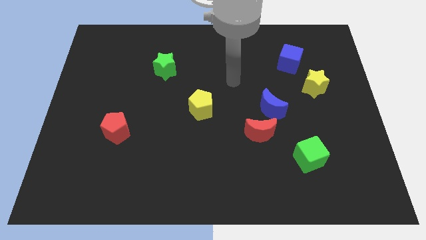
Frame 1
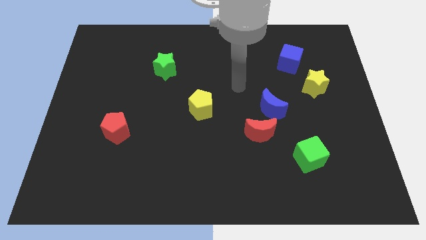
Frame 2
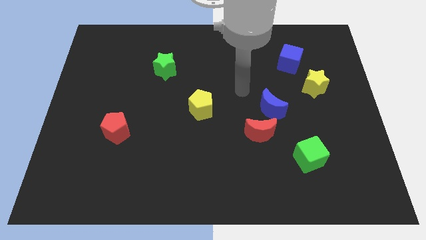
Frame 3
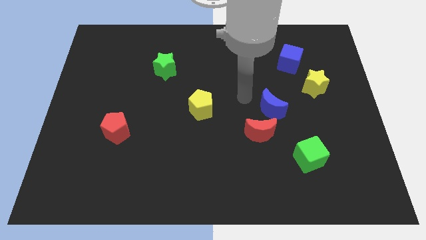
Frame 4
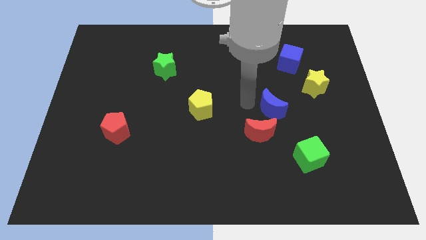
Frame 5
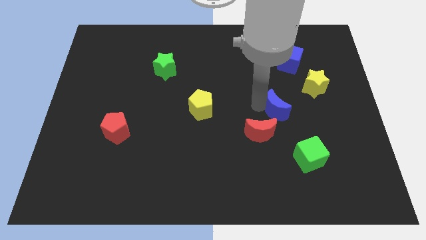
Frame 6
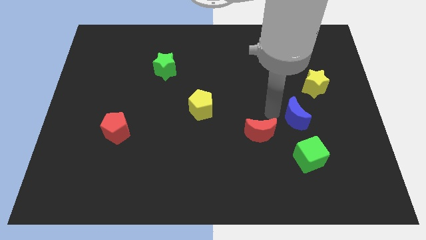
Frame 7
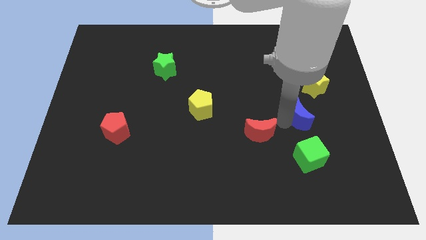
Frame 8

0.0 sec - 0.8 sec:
separate the red moon from the blue moon

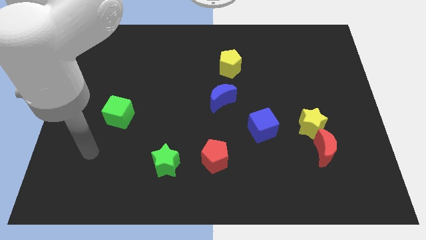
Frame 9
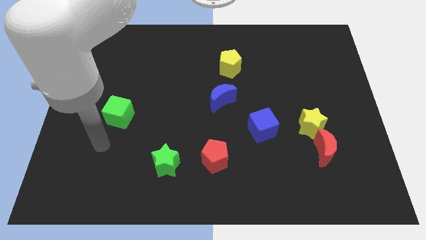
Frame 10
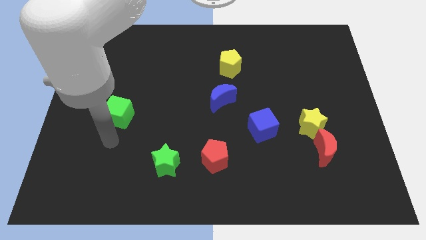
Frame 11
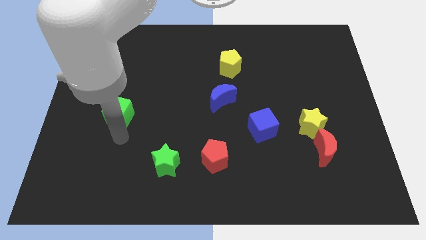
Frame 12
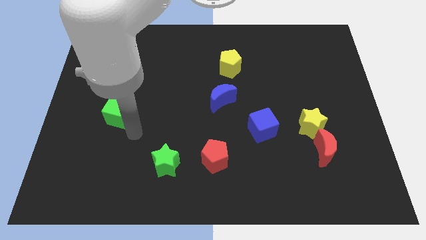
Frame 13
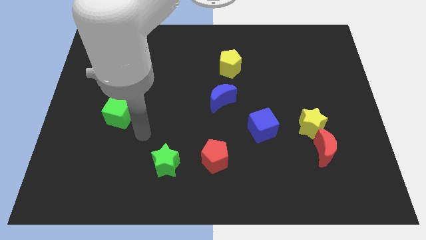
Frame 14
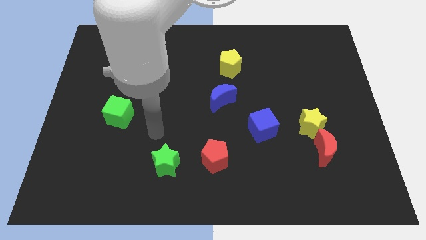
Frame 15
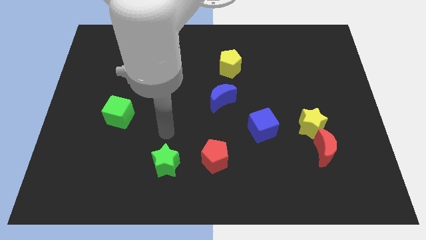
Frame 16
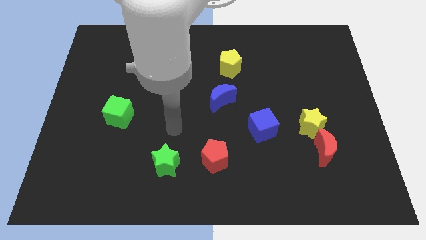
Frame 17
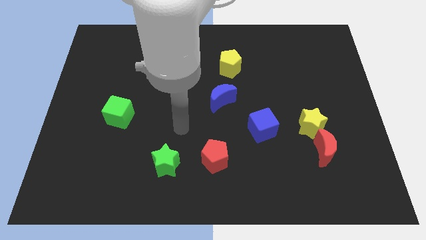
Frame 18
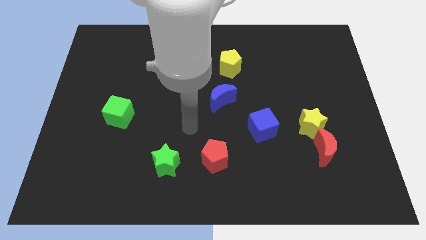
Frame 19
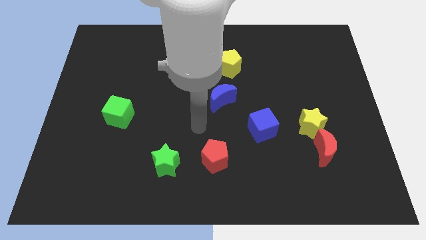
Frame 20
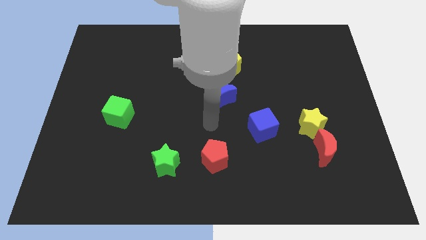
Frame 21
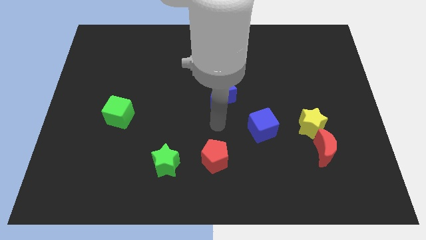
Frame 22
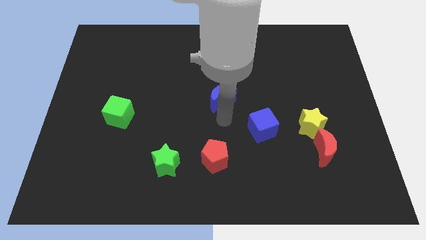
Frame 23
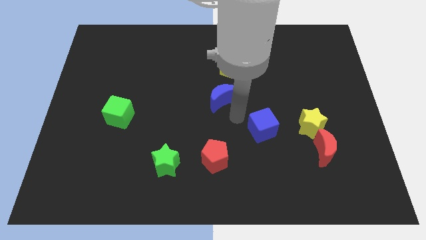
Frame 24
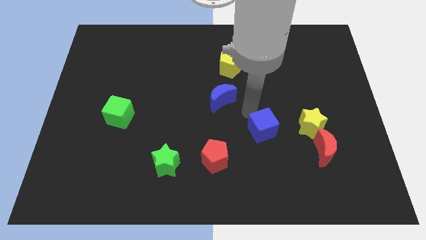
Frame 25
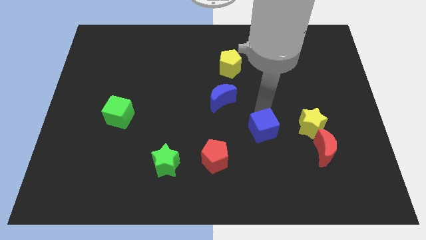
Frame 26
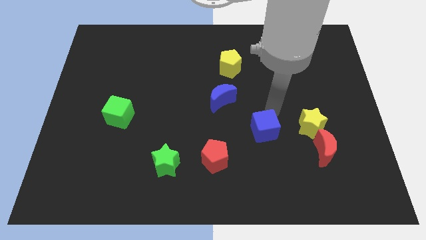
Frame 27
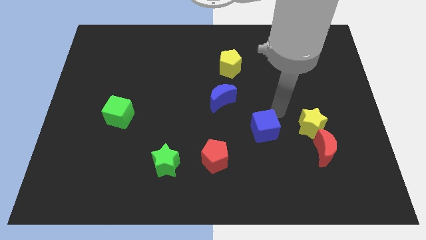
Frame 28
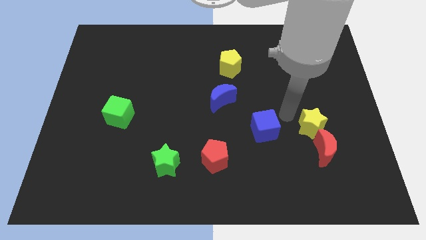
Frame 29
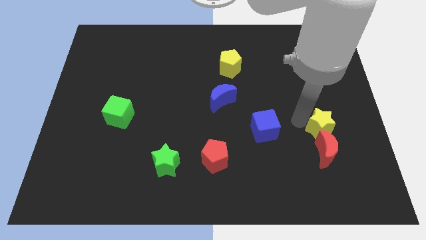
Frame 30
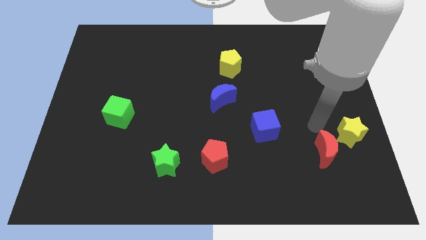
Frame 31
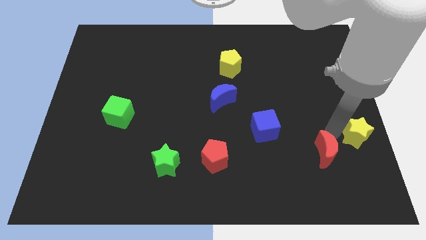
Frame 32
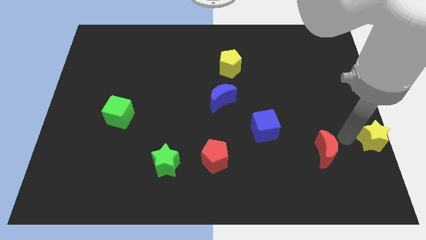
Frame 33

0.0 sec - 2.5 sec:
move the red moon away from the yellow star

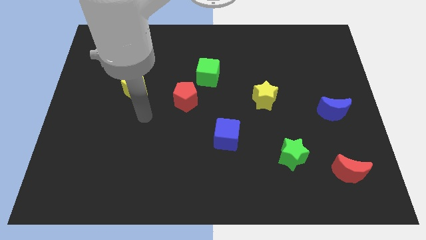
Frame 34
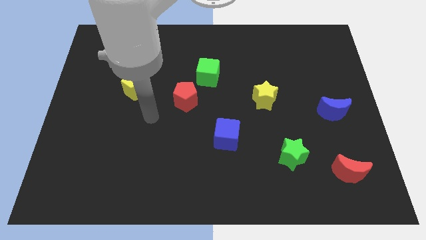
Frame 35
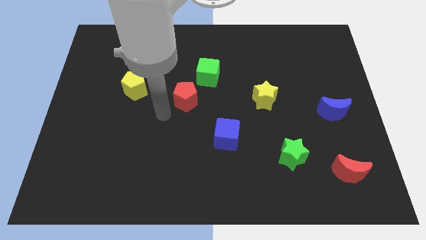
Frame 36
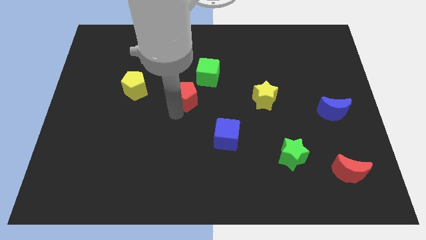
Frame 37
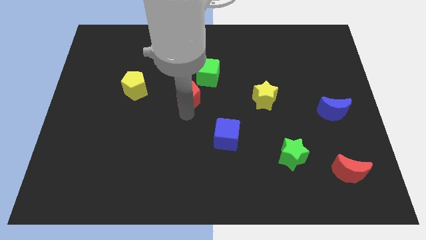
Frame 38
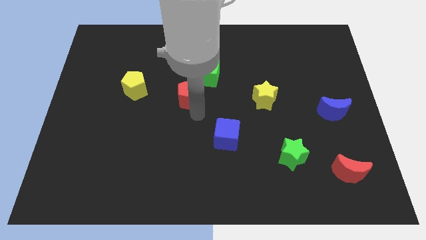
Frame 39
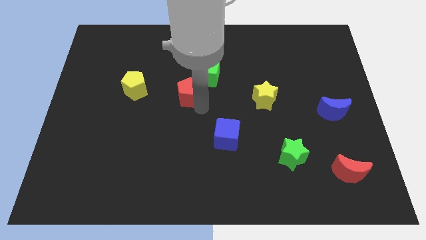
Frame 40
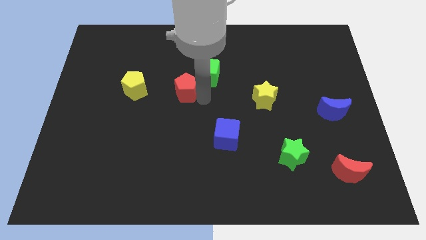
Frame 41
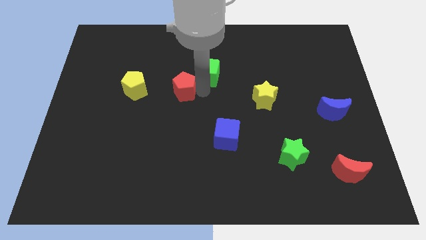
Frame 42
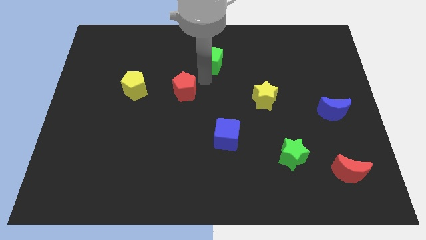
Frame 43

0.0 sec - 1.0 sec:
pull the red pentagon apart from the green cube

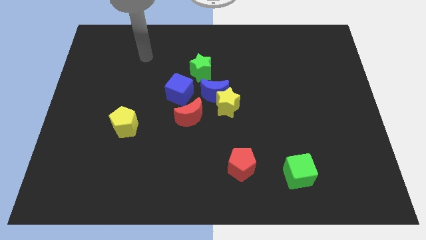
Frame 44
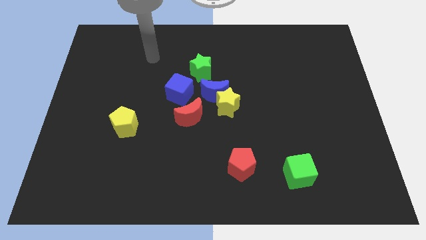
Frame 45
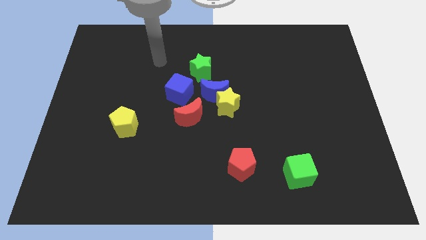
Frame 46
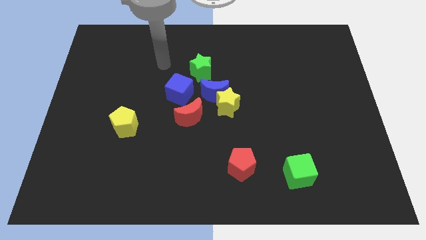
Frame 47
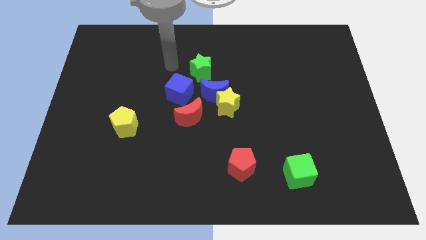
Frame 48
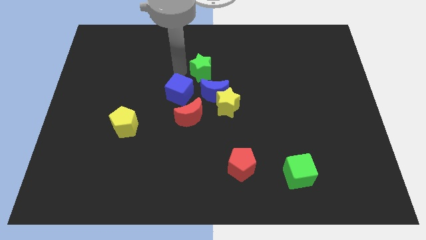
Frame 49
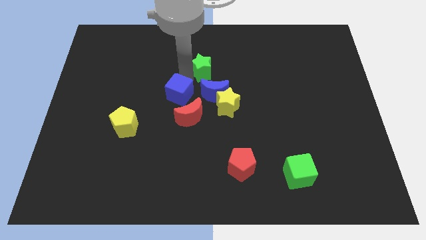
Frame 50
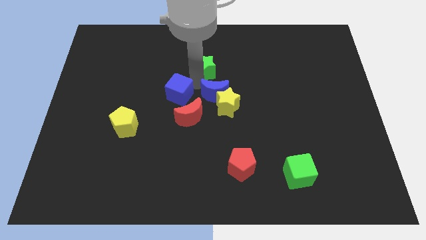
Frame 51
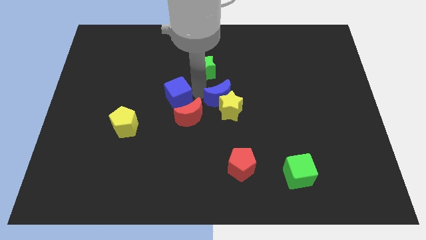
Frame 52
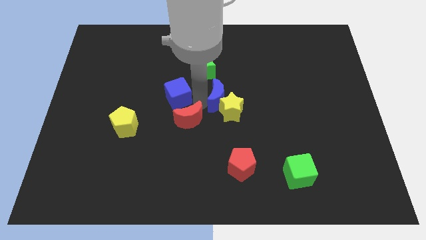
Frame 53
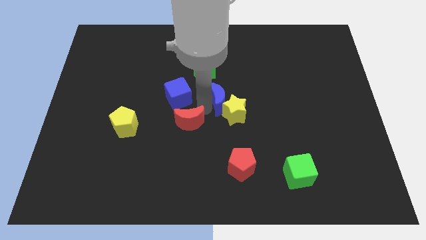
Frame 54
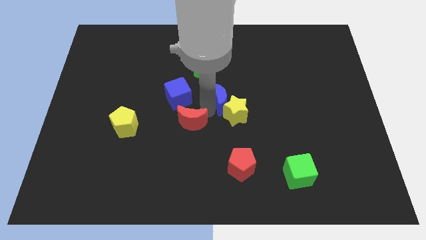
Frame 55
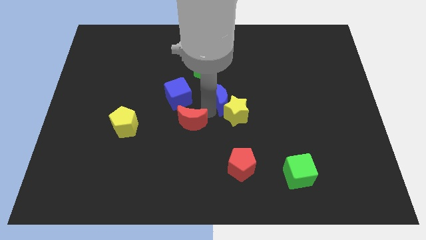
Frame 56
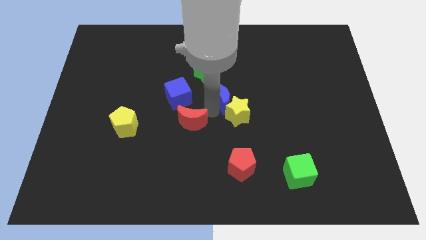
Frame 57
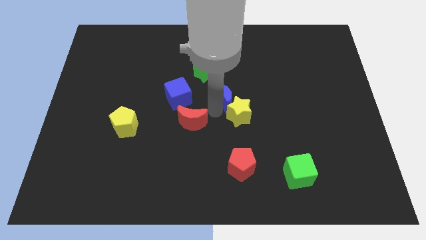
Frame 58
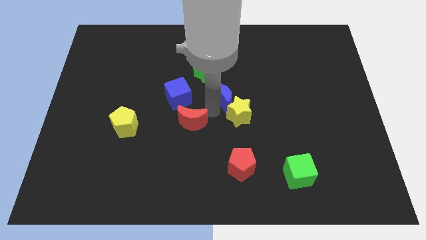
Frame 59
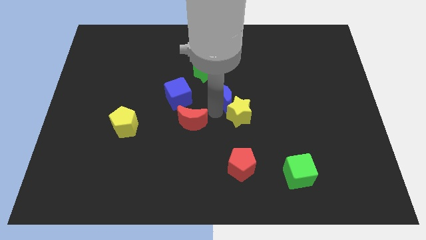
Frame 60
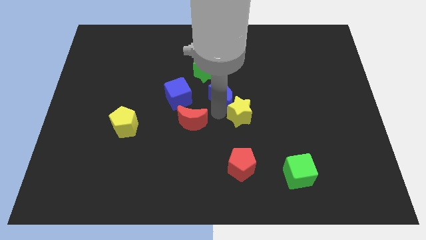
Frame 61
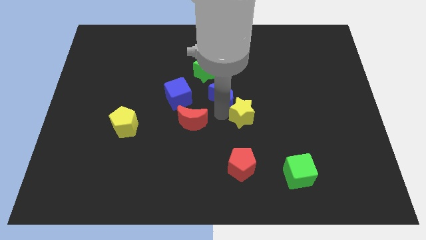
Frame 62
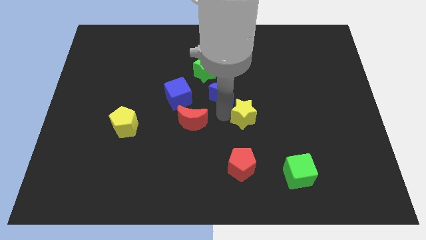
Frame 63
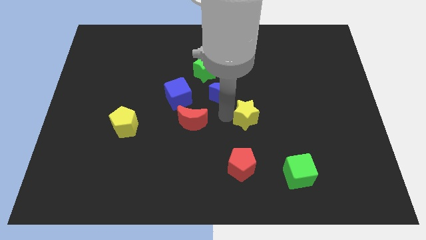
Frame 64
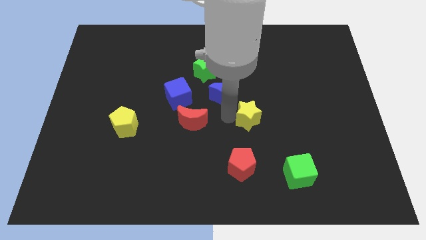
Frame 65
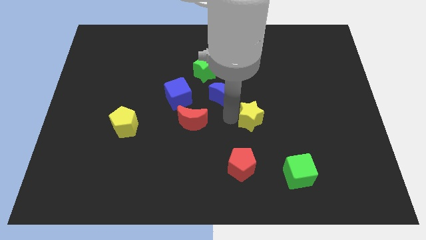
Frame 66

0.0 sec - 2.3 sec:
pull the yellow star apart from the blue moon and red moon

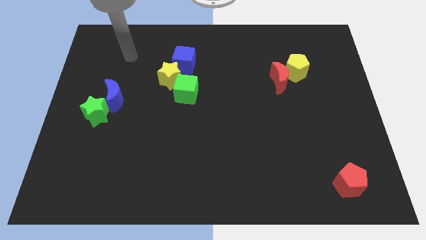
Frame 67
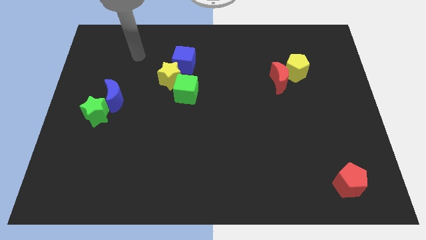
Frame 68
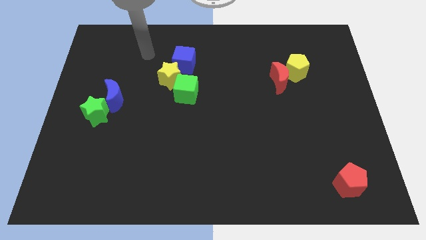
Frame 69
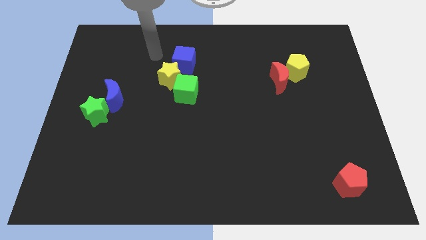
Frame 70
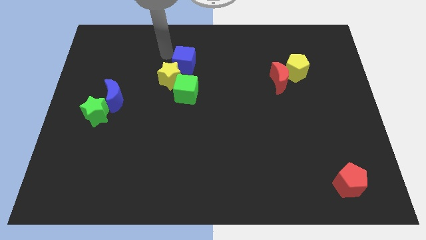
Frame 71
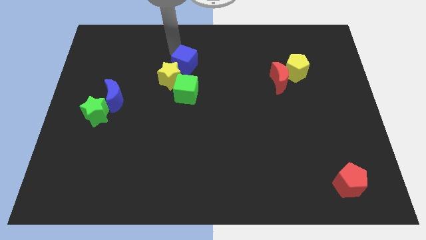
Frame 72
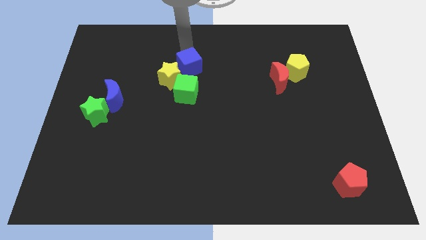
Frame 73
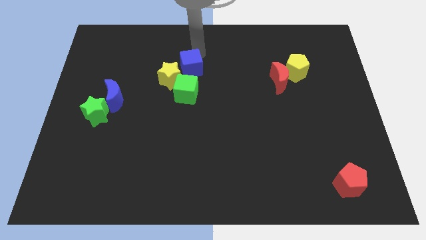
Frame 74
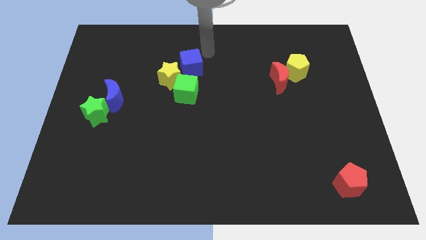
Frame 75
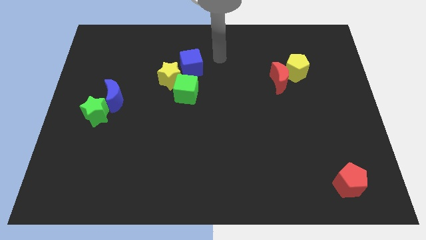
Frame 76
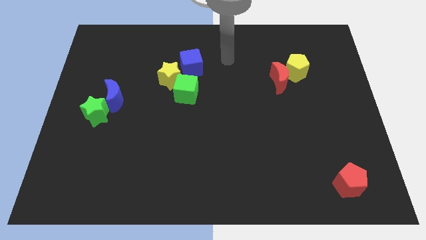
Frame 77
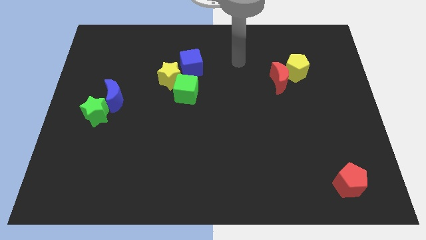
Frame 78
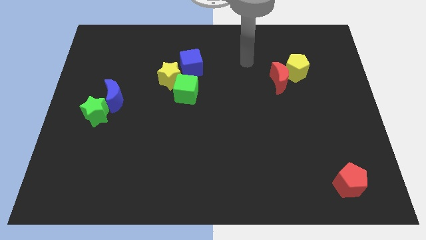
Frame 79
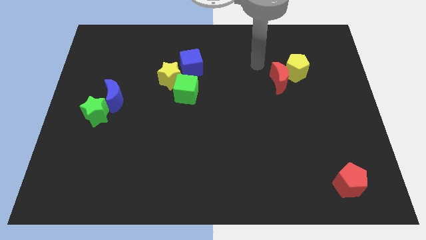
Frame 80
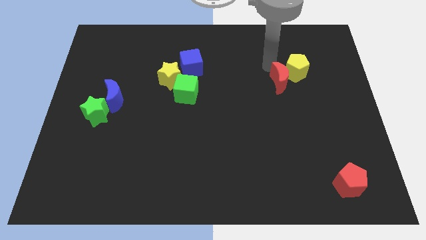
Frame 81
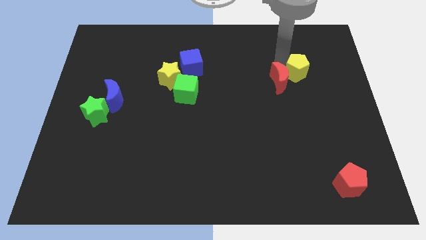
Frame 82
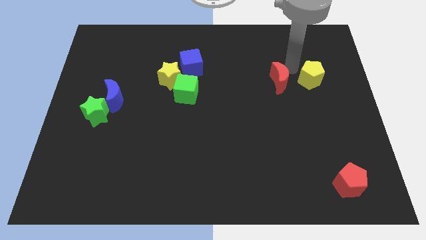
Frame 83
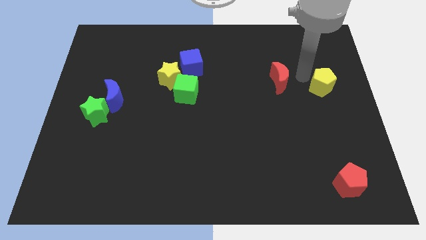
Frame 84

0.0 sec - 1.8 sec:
move the red moon away from the yellow pentagon

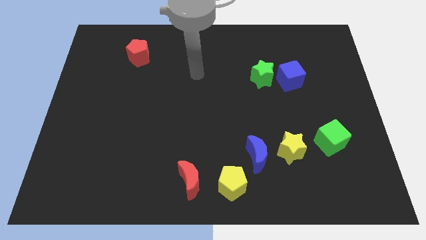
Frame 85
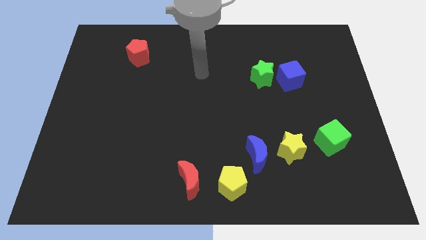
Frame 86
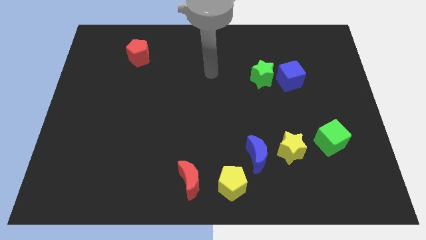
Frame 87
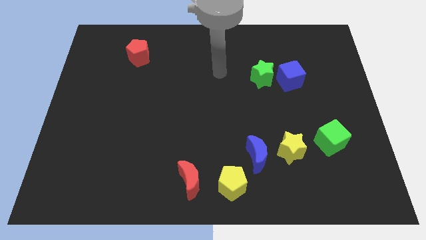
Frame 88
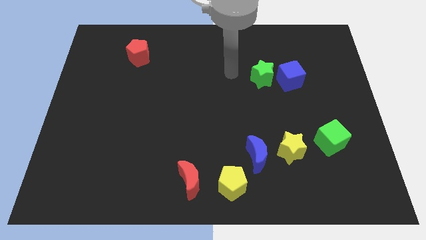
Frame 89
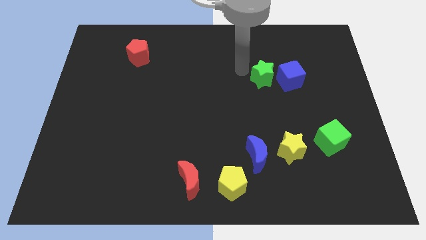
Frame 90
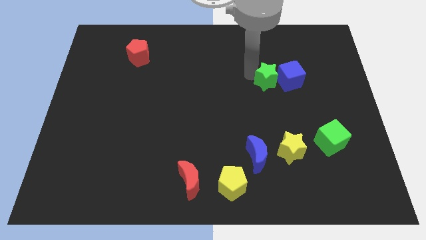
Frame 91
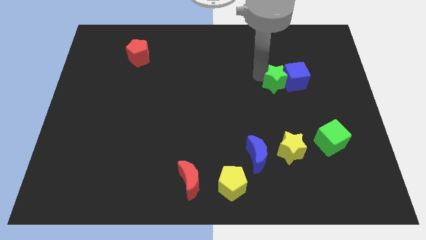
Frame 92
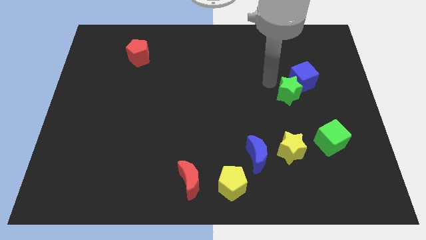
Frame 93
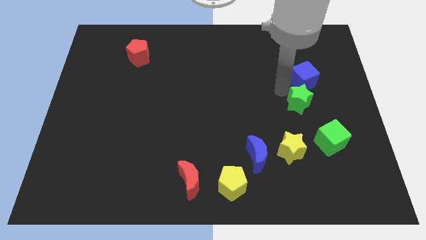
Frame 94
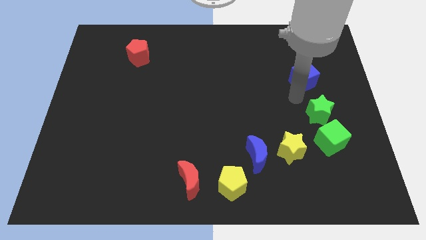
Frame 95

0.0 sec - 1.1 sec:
pull the blue cube apart from the green star
